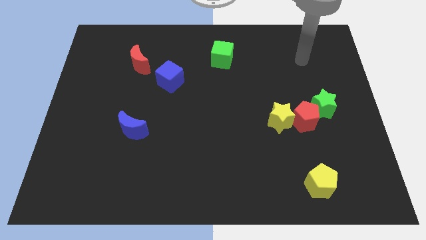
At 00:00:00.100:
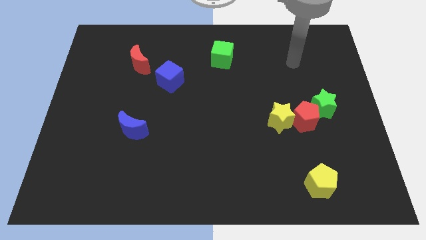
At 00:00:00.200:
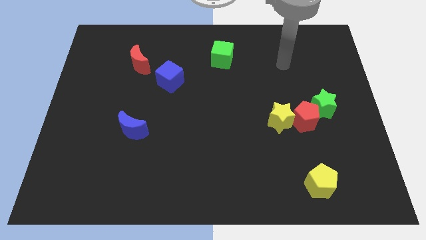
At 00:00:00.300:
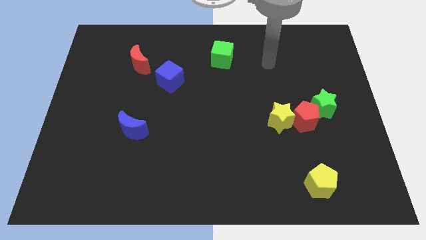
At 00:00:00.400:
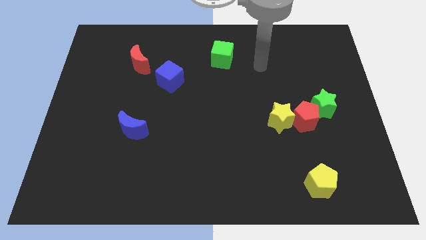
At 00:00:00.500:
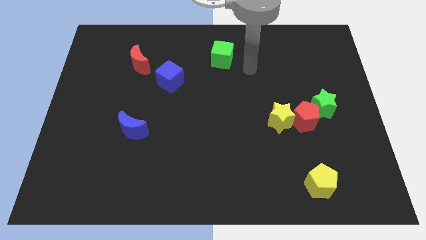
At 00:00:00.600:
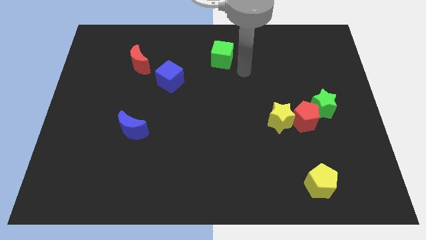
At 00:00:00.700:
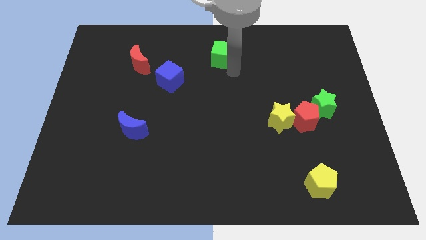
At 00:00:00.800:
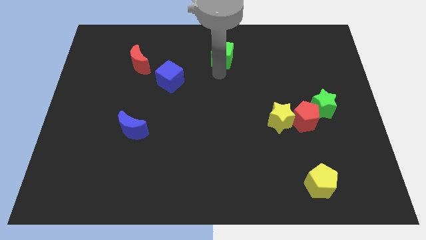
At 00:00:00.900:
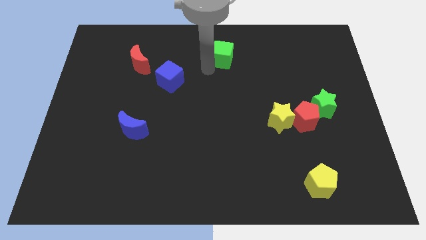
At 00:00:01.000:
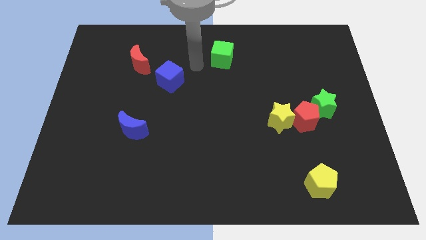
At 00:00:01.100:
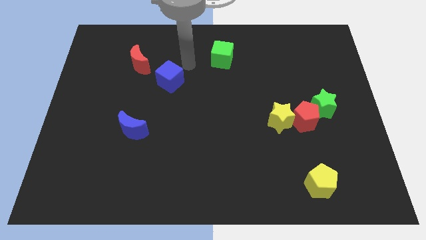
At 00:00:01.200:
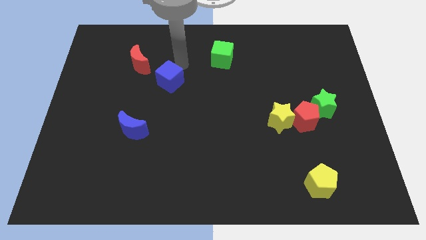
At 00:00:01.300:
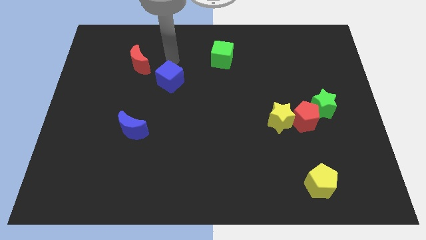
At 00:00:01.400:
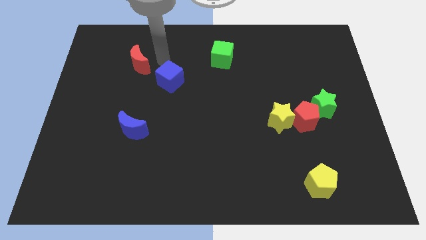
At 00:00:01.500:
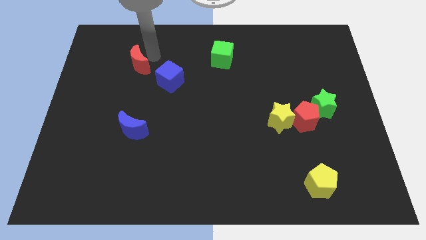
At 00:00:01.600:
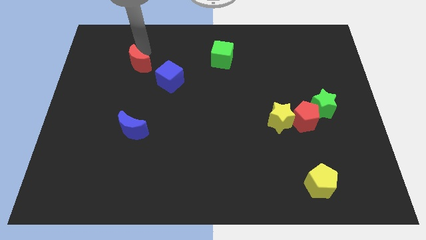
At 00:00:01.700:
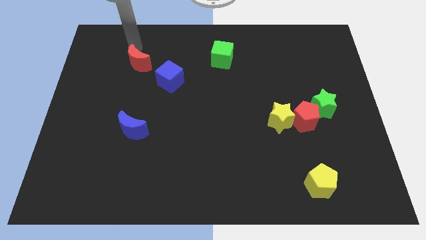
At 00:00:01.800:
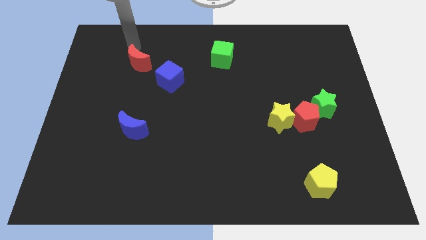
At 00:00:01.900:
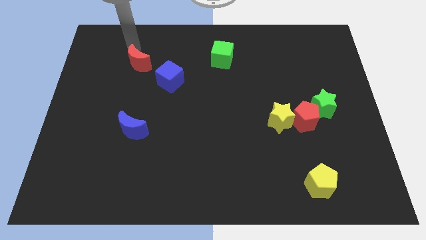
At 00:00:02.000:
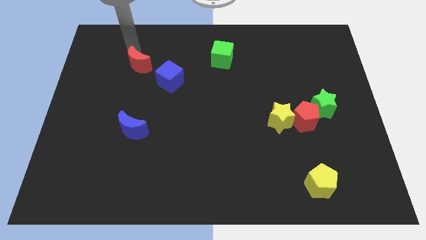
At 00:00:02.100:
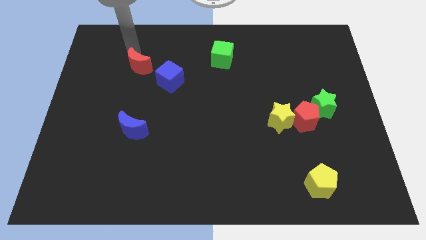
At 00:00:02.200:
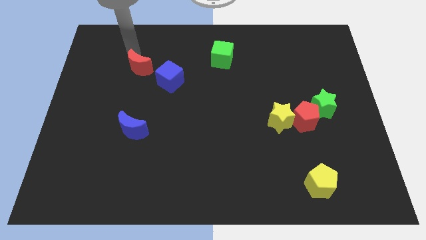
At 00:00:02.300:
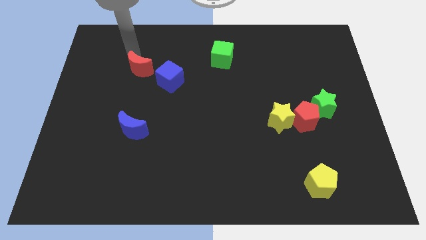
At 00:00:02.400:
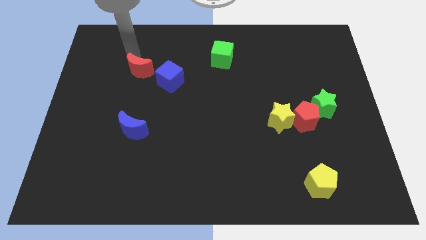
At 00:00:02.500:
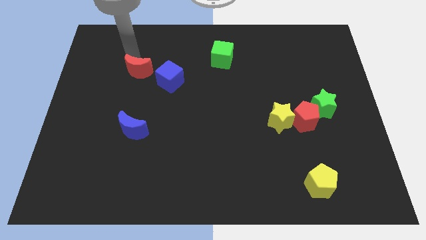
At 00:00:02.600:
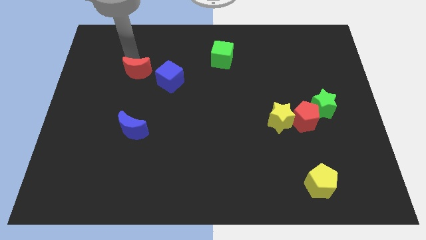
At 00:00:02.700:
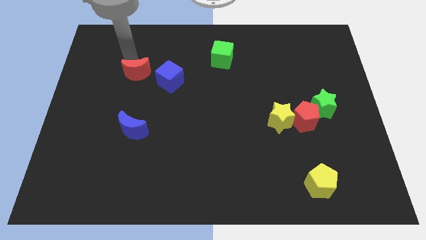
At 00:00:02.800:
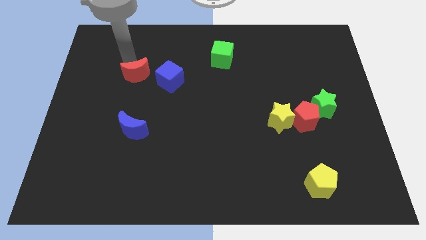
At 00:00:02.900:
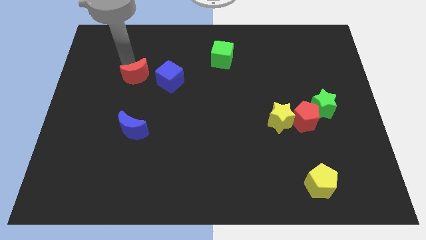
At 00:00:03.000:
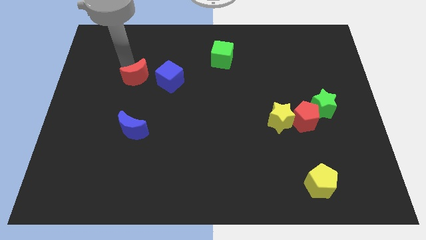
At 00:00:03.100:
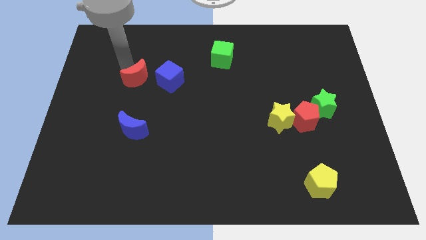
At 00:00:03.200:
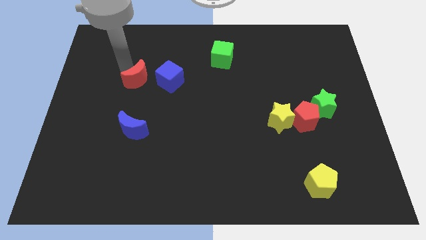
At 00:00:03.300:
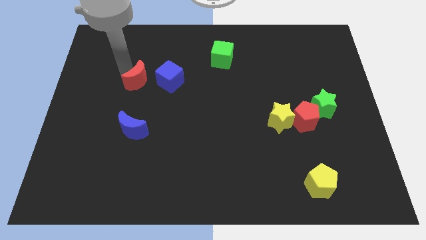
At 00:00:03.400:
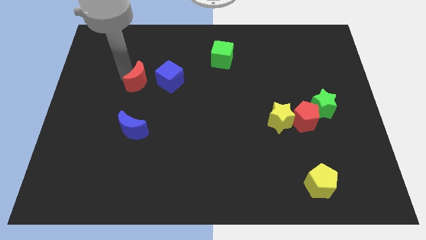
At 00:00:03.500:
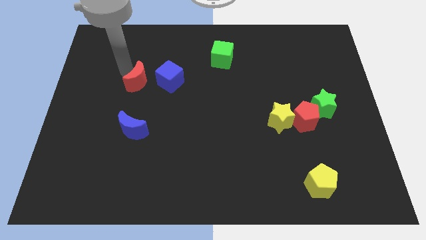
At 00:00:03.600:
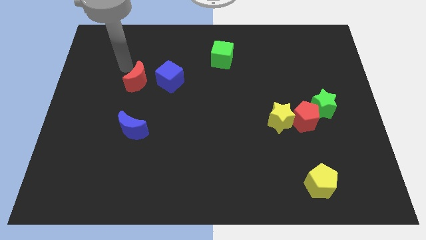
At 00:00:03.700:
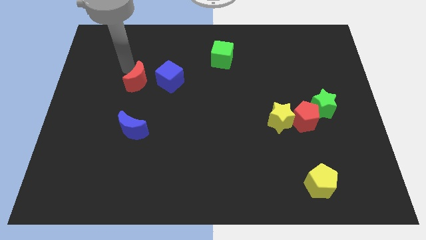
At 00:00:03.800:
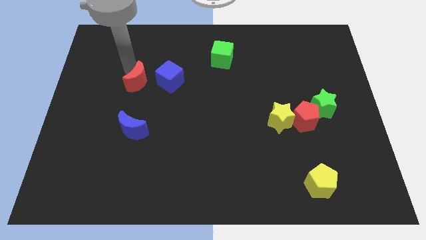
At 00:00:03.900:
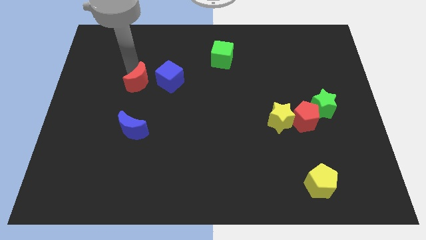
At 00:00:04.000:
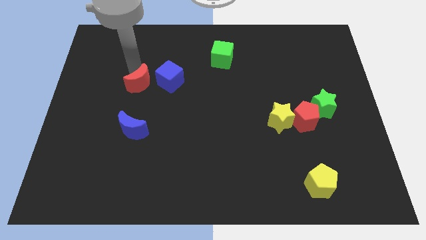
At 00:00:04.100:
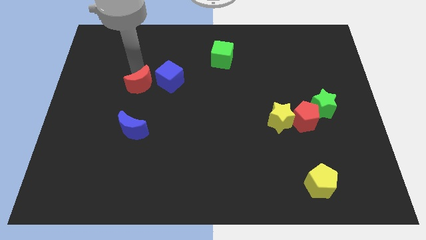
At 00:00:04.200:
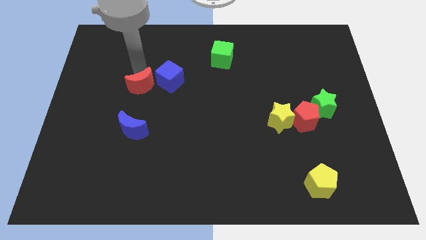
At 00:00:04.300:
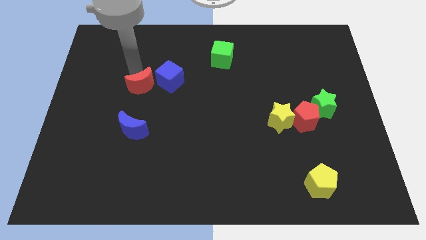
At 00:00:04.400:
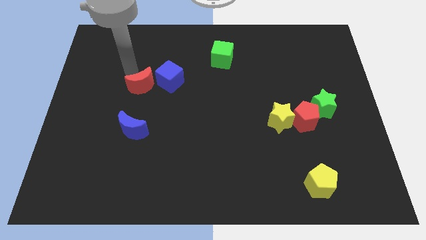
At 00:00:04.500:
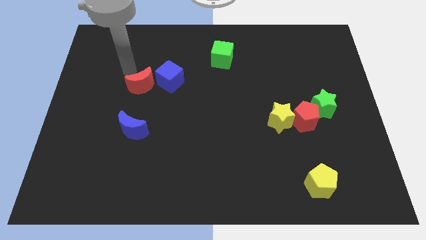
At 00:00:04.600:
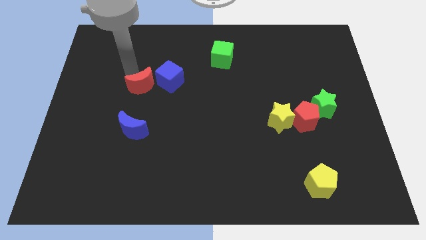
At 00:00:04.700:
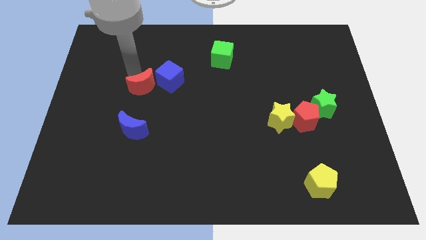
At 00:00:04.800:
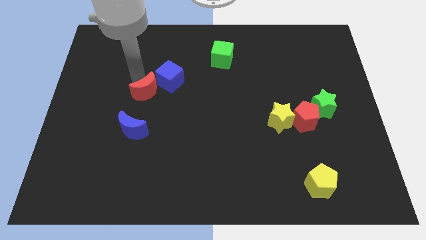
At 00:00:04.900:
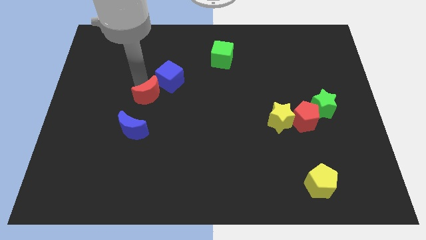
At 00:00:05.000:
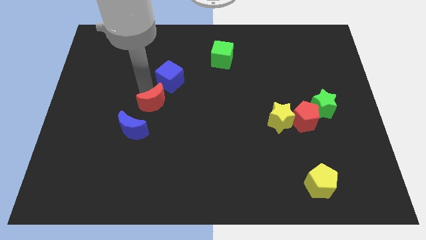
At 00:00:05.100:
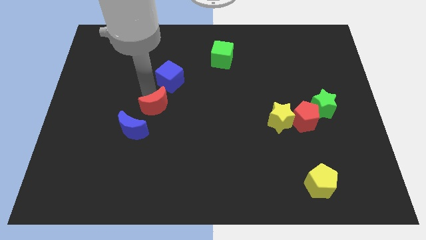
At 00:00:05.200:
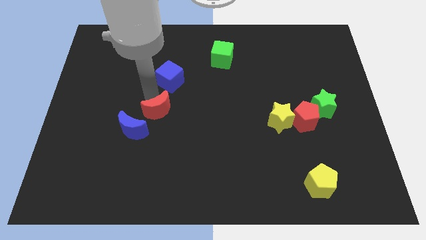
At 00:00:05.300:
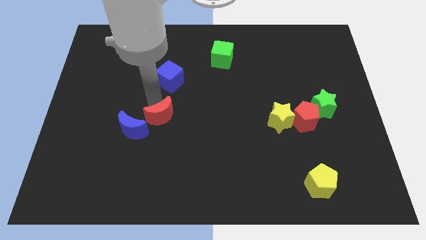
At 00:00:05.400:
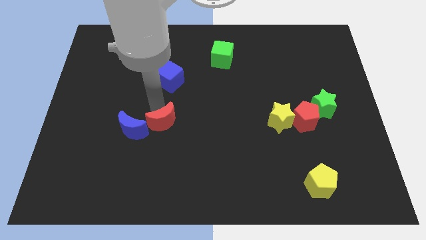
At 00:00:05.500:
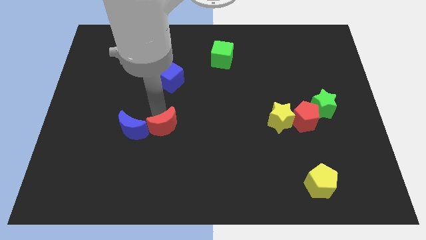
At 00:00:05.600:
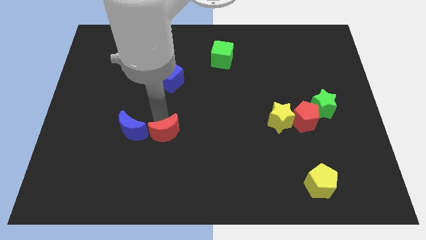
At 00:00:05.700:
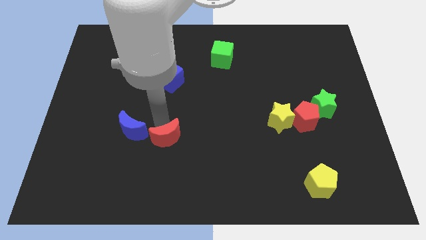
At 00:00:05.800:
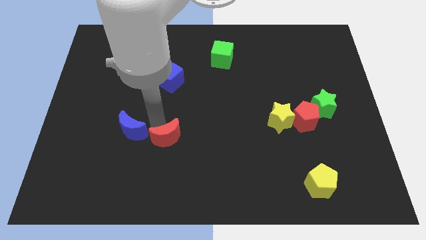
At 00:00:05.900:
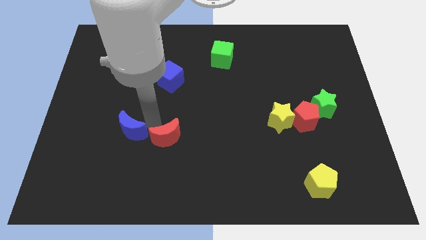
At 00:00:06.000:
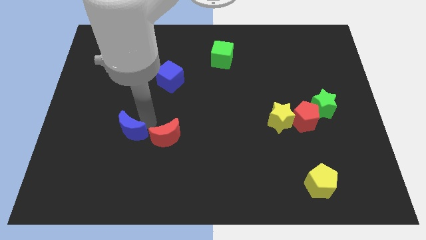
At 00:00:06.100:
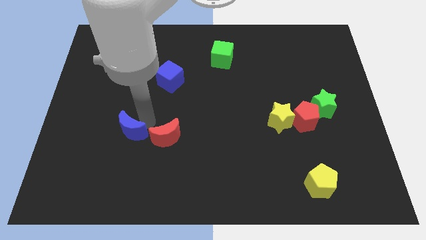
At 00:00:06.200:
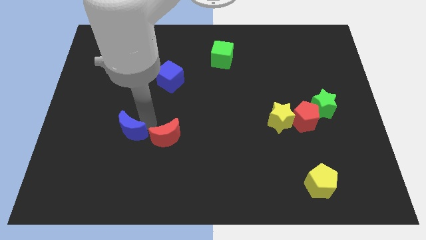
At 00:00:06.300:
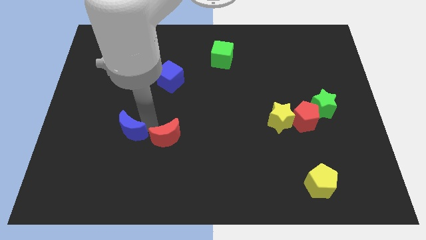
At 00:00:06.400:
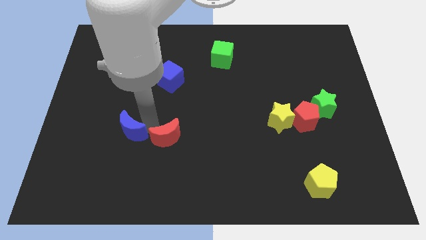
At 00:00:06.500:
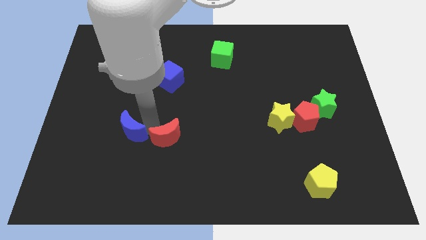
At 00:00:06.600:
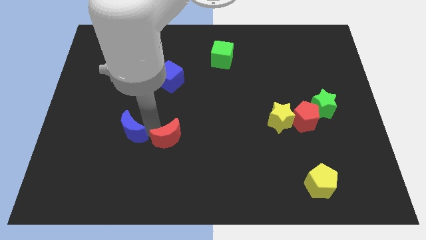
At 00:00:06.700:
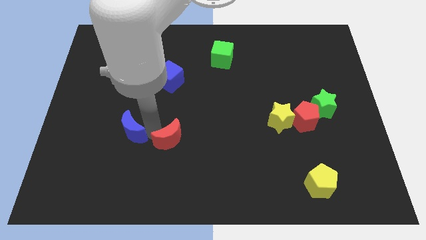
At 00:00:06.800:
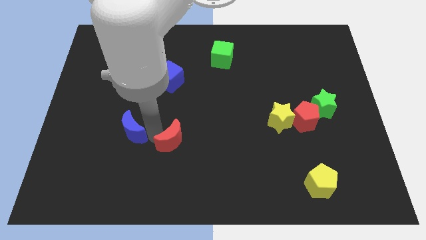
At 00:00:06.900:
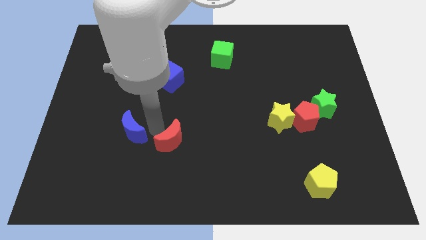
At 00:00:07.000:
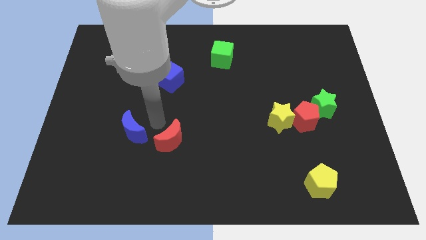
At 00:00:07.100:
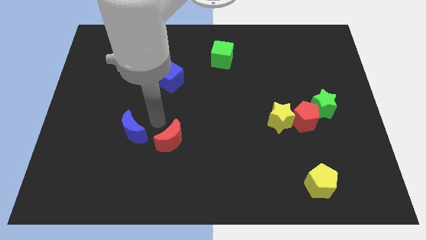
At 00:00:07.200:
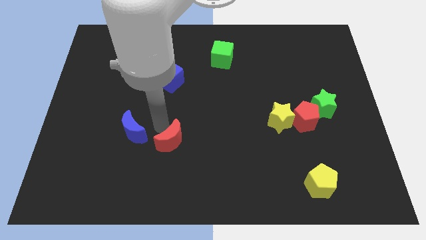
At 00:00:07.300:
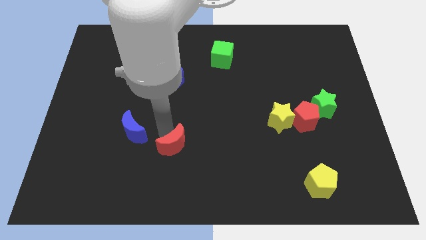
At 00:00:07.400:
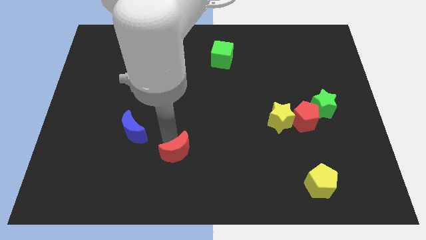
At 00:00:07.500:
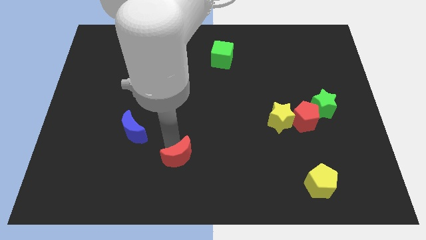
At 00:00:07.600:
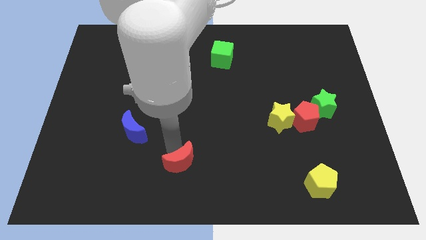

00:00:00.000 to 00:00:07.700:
move the red moon to the bottom
